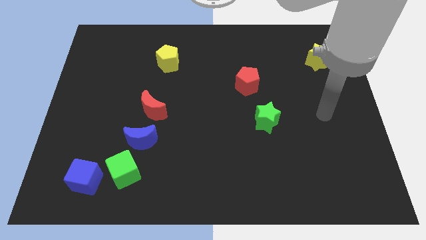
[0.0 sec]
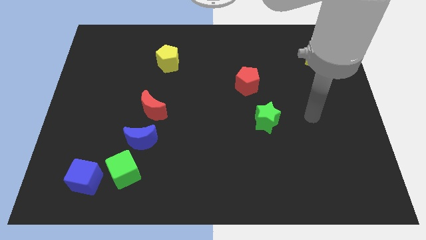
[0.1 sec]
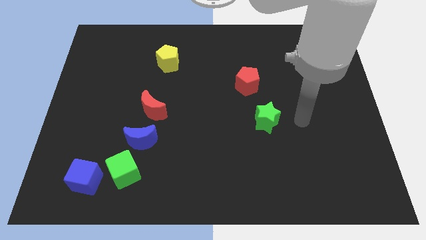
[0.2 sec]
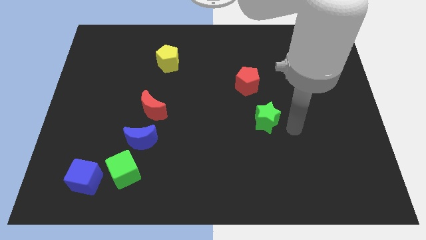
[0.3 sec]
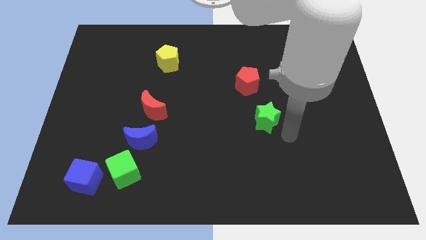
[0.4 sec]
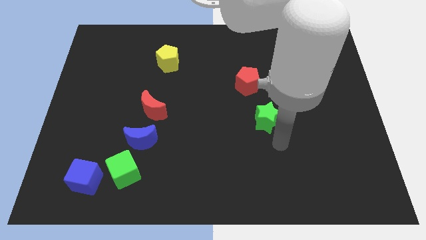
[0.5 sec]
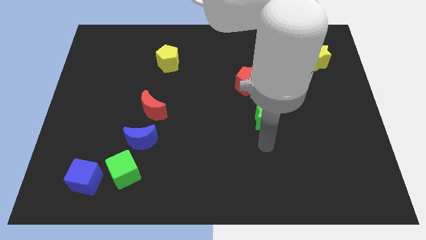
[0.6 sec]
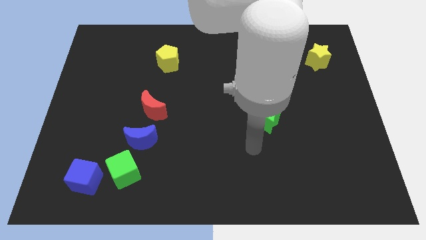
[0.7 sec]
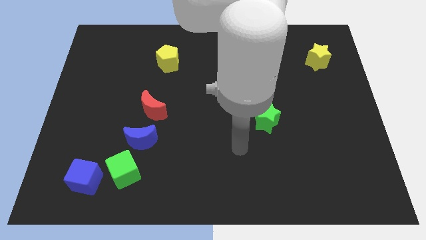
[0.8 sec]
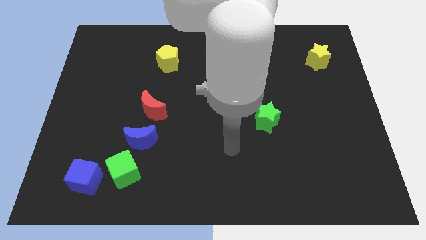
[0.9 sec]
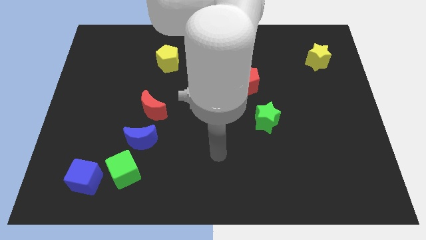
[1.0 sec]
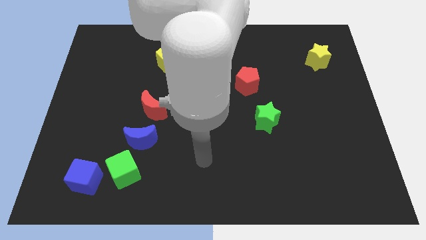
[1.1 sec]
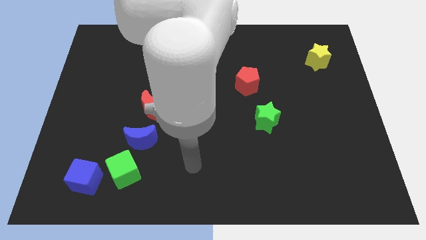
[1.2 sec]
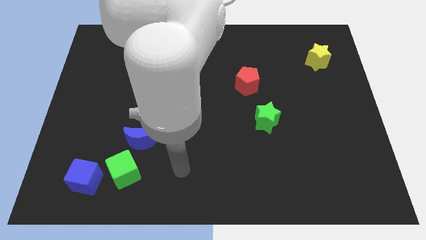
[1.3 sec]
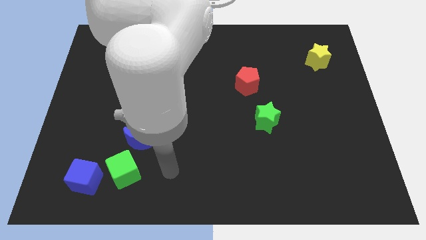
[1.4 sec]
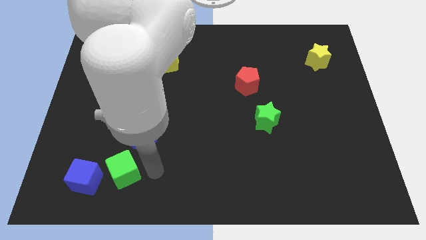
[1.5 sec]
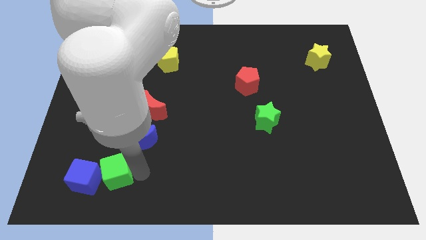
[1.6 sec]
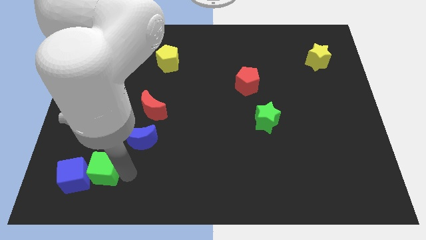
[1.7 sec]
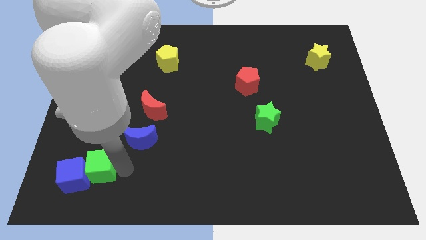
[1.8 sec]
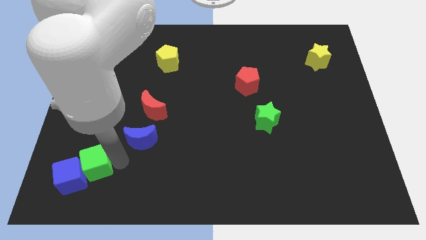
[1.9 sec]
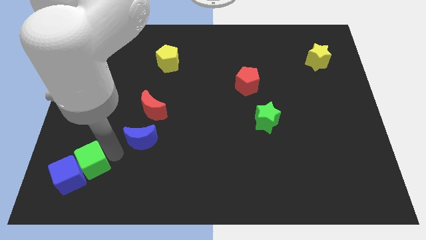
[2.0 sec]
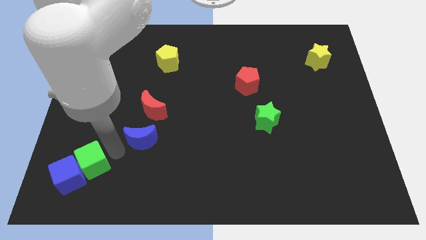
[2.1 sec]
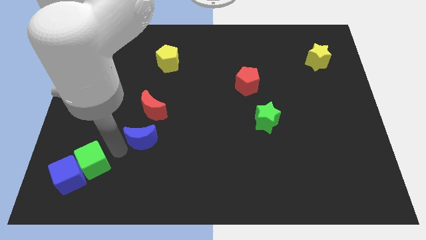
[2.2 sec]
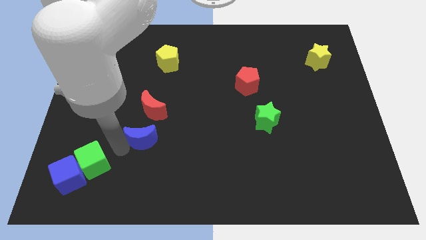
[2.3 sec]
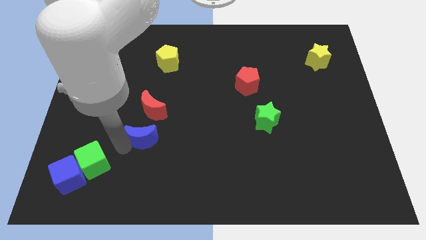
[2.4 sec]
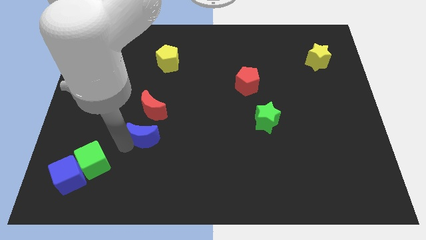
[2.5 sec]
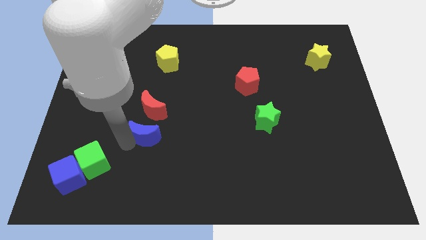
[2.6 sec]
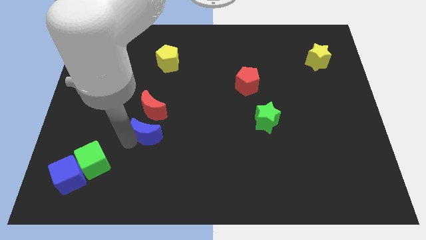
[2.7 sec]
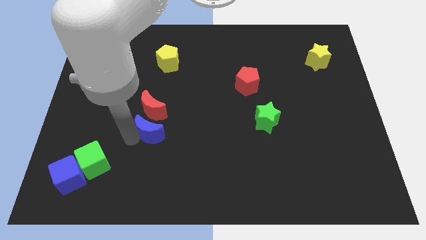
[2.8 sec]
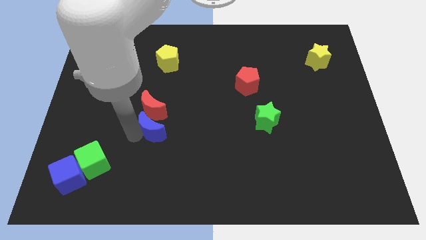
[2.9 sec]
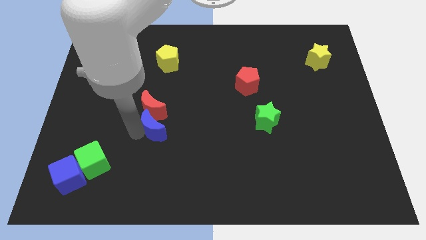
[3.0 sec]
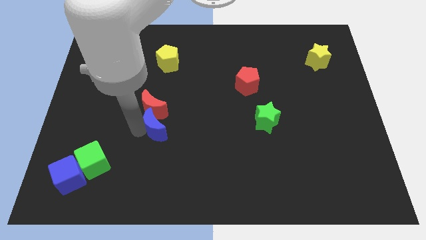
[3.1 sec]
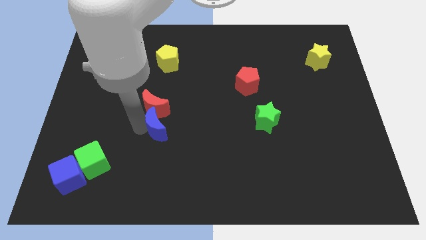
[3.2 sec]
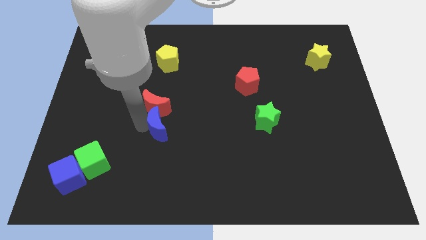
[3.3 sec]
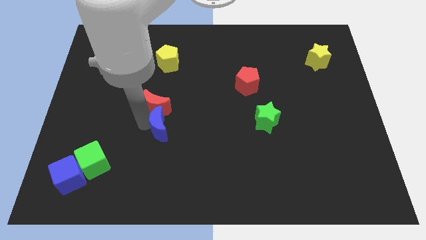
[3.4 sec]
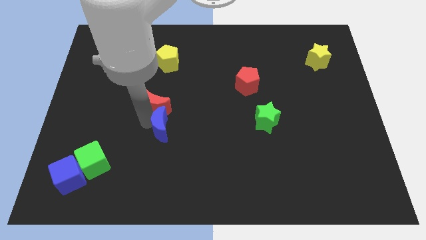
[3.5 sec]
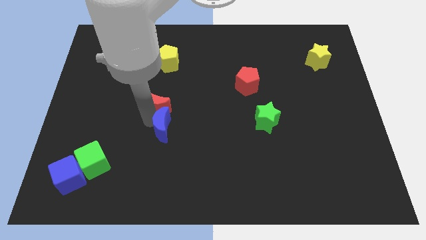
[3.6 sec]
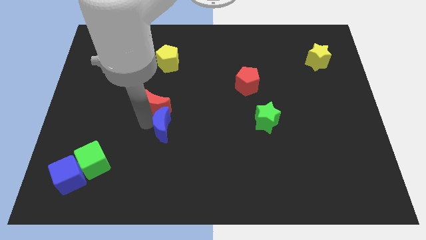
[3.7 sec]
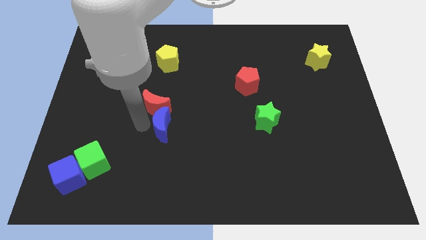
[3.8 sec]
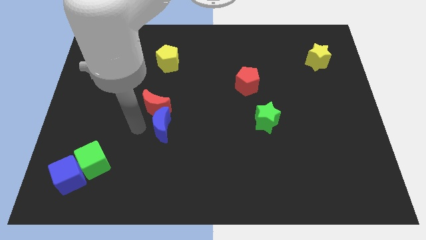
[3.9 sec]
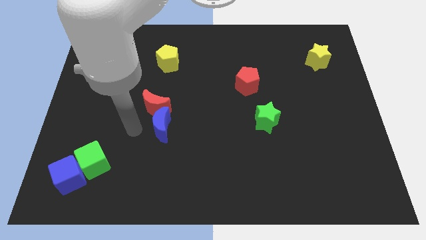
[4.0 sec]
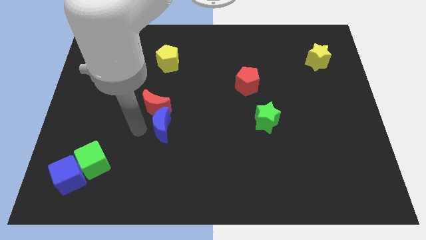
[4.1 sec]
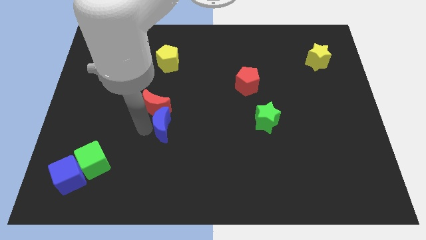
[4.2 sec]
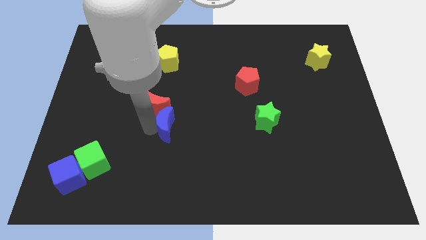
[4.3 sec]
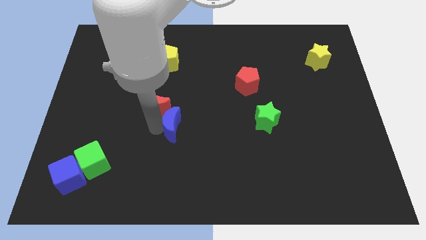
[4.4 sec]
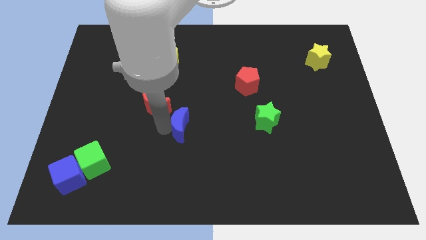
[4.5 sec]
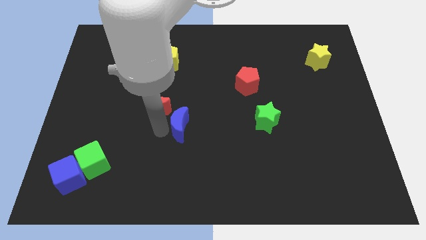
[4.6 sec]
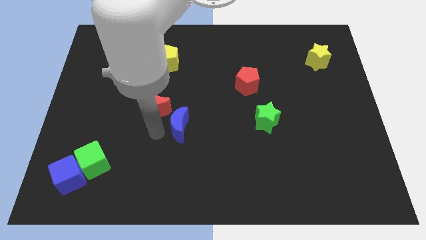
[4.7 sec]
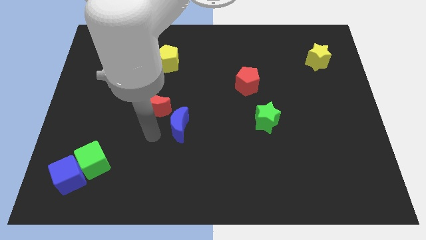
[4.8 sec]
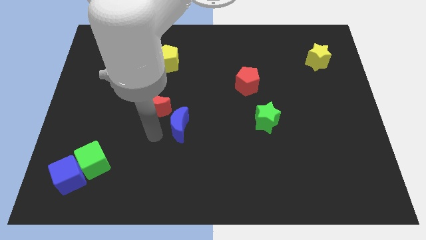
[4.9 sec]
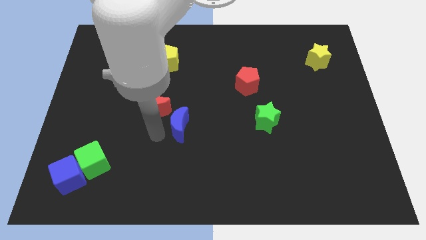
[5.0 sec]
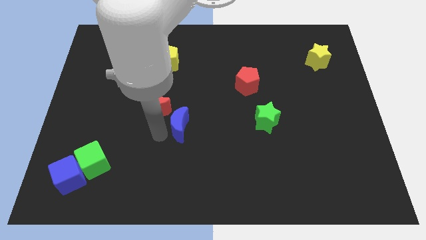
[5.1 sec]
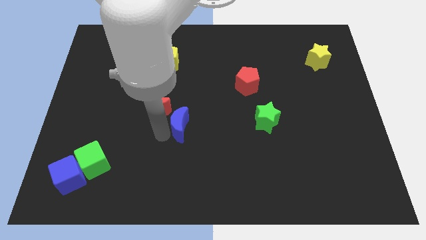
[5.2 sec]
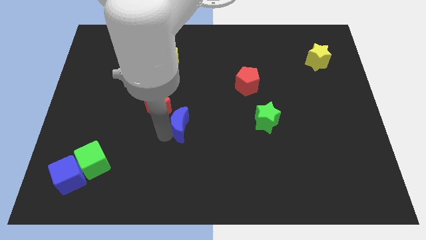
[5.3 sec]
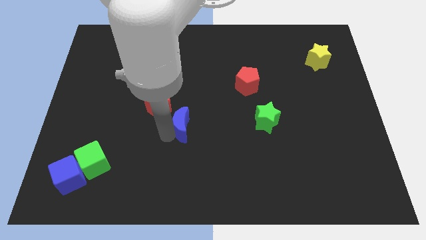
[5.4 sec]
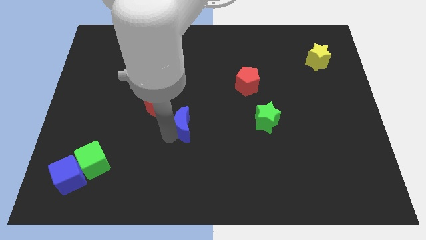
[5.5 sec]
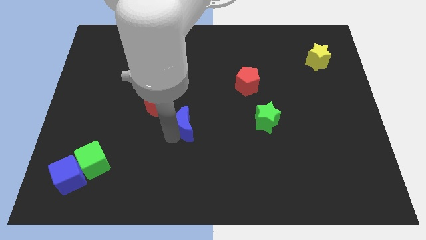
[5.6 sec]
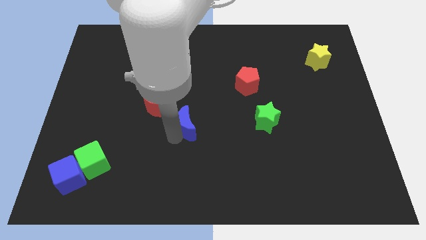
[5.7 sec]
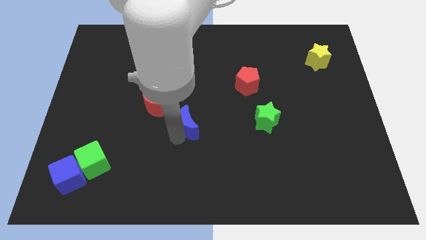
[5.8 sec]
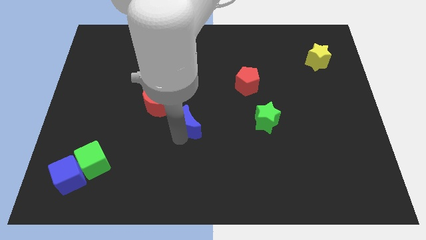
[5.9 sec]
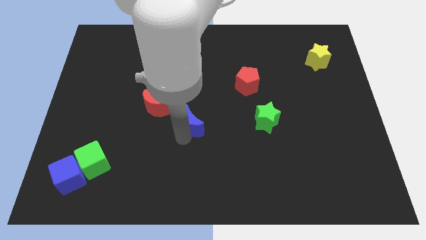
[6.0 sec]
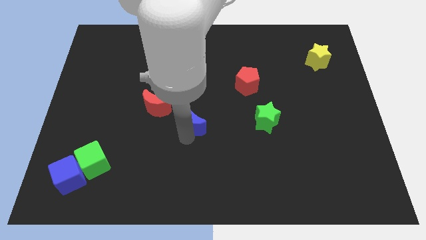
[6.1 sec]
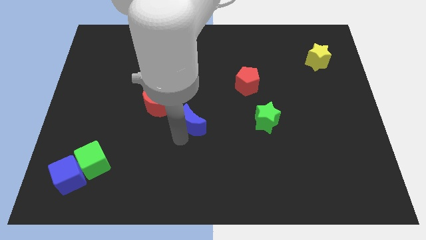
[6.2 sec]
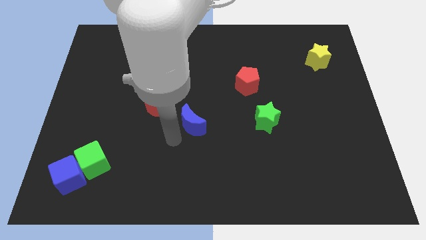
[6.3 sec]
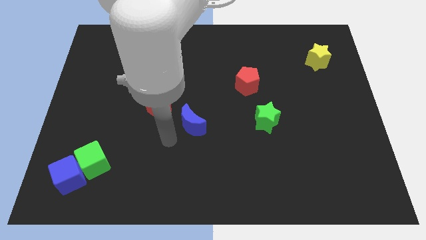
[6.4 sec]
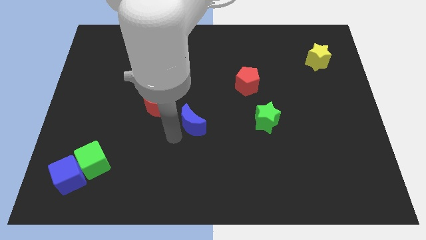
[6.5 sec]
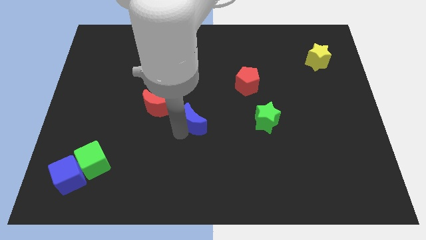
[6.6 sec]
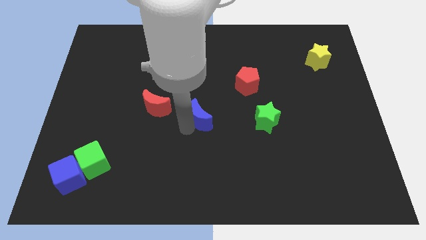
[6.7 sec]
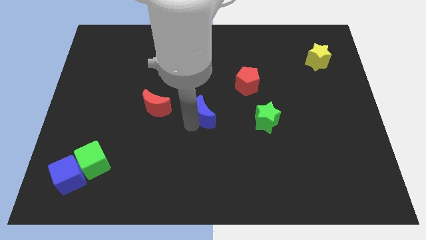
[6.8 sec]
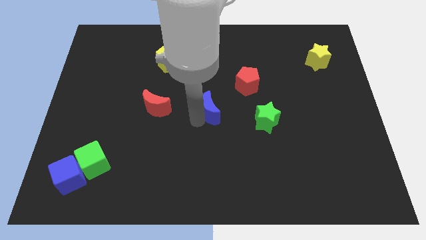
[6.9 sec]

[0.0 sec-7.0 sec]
push the blue moon to the bottom left of the red pentagon
